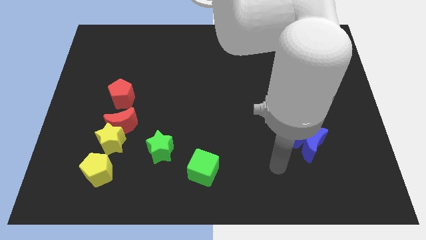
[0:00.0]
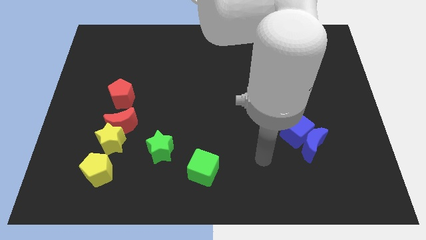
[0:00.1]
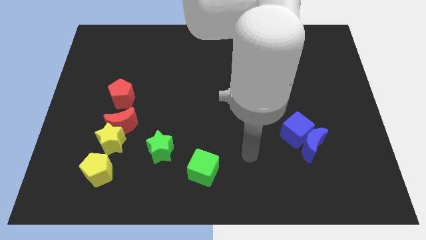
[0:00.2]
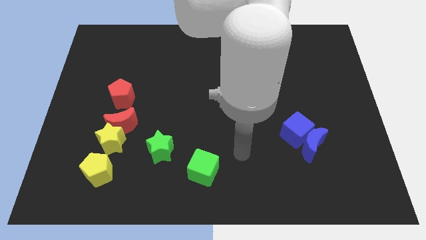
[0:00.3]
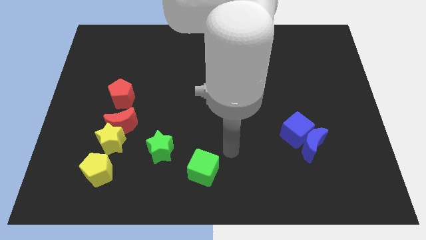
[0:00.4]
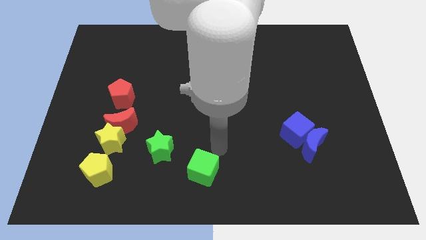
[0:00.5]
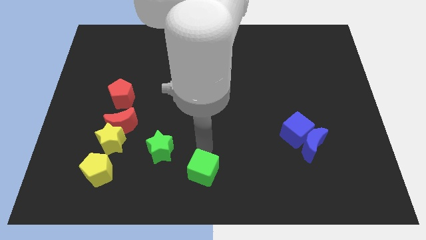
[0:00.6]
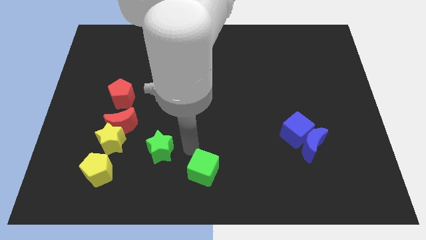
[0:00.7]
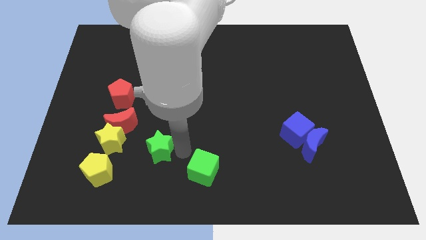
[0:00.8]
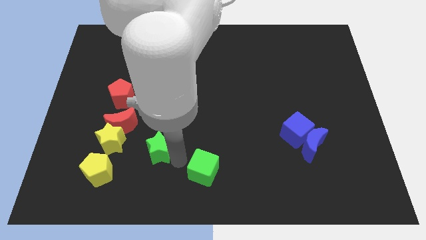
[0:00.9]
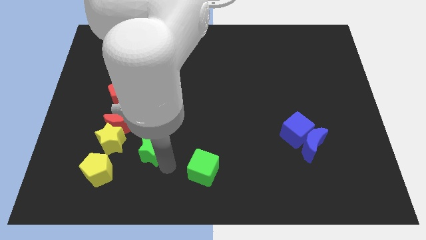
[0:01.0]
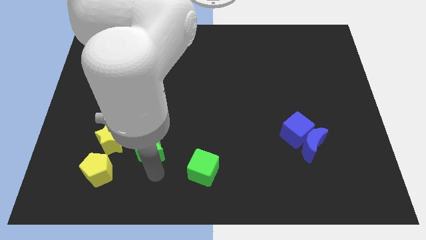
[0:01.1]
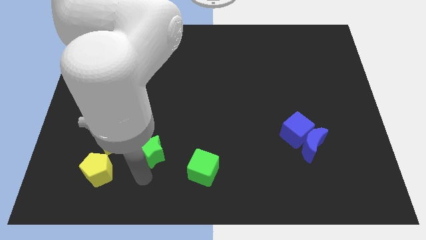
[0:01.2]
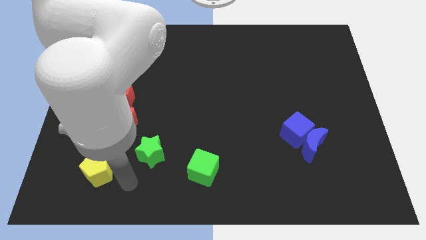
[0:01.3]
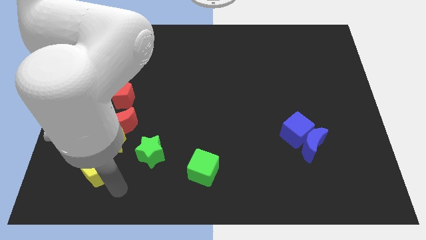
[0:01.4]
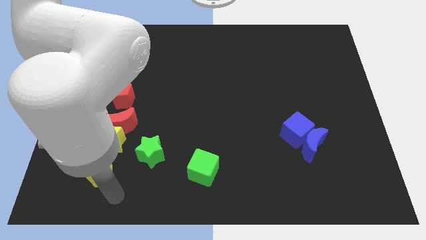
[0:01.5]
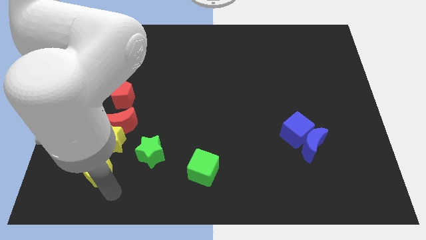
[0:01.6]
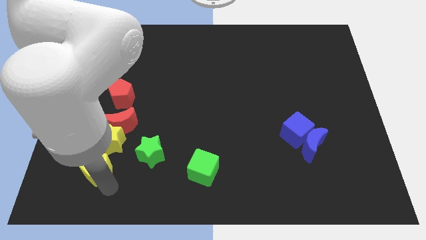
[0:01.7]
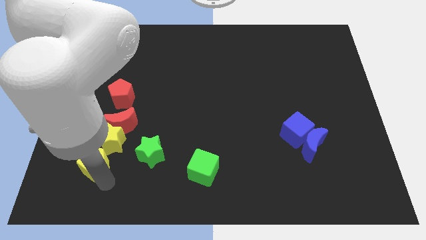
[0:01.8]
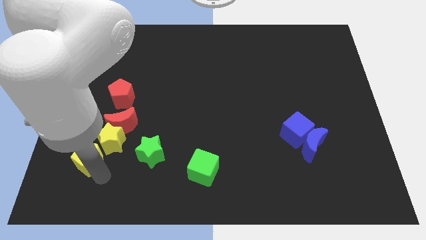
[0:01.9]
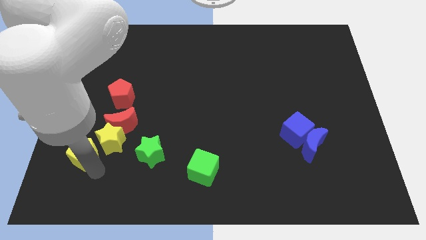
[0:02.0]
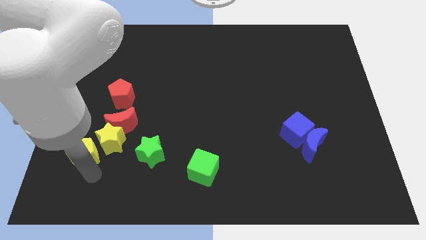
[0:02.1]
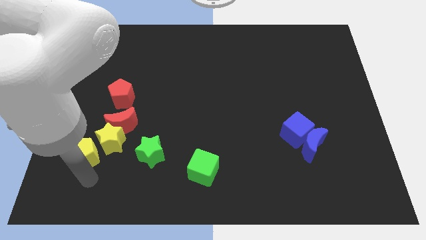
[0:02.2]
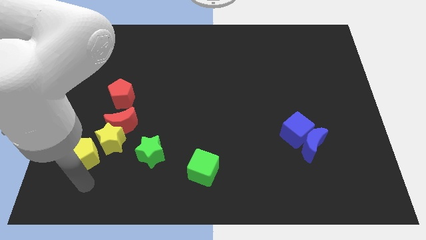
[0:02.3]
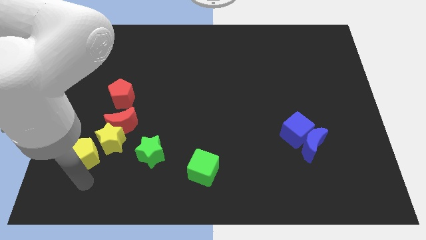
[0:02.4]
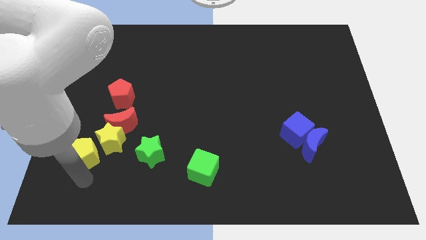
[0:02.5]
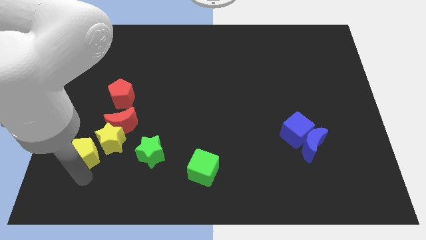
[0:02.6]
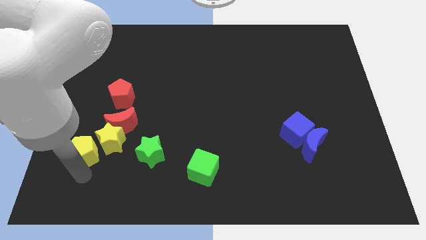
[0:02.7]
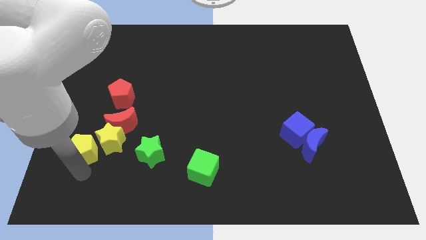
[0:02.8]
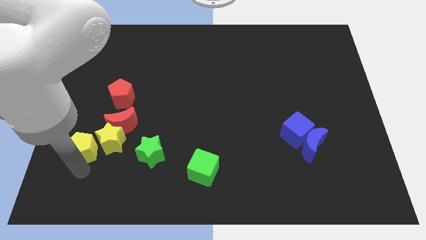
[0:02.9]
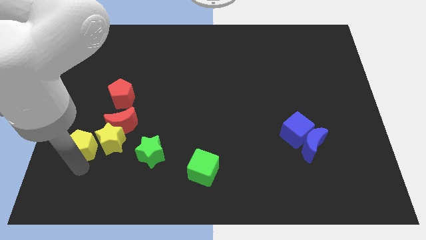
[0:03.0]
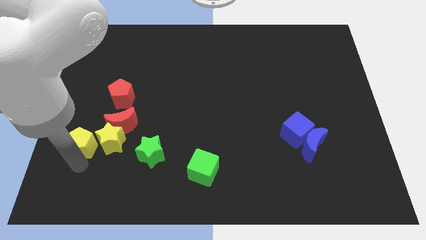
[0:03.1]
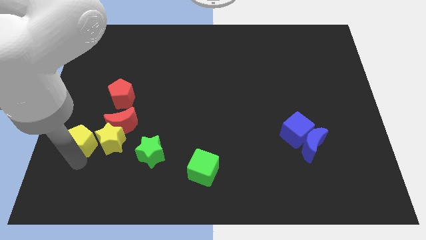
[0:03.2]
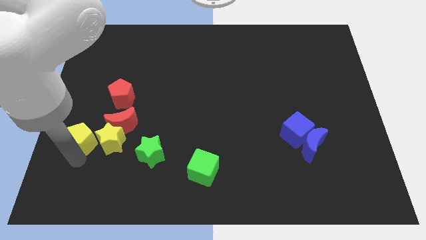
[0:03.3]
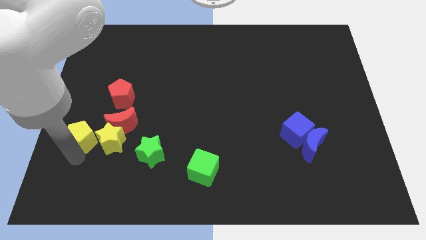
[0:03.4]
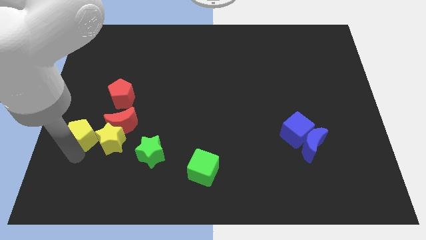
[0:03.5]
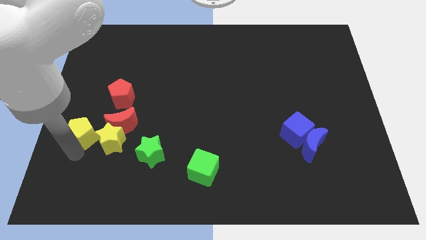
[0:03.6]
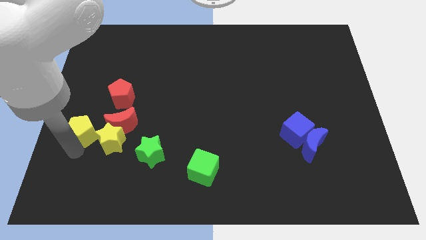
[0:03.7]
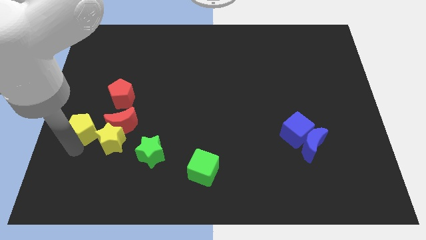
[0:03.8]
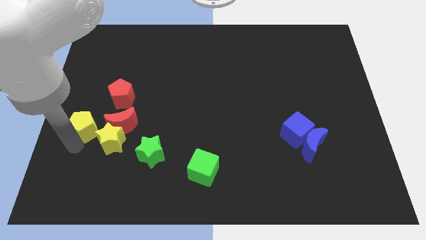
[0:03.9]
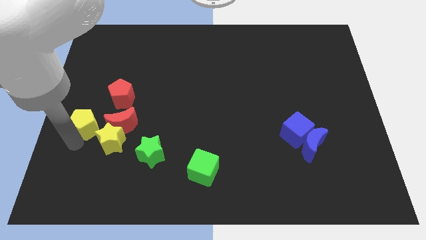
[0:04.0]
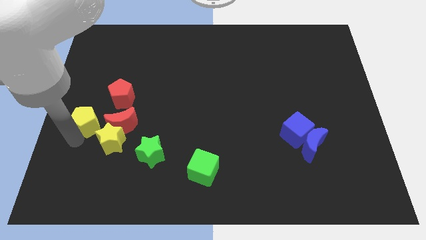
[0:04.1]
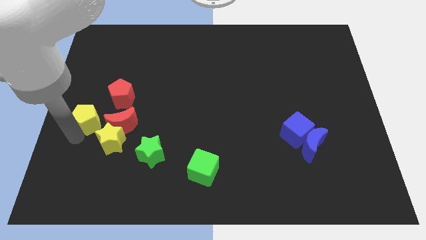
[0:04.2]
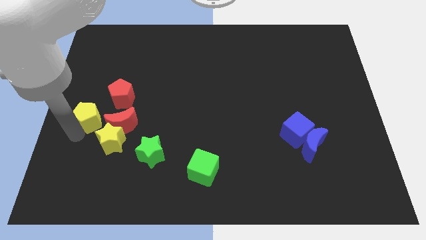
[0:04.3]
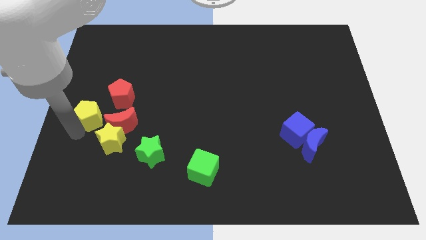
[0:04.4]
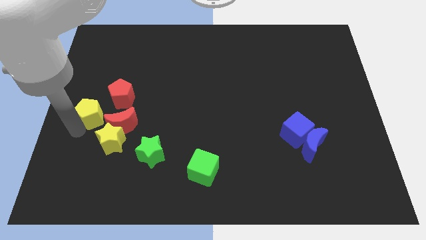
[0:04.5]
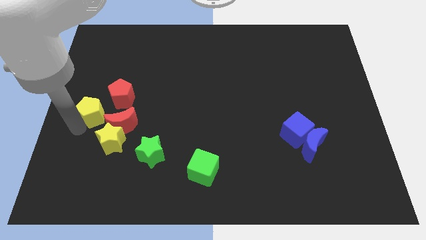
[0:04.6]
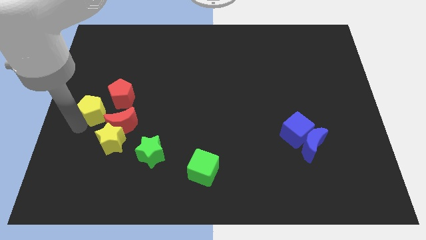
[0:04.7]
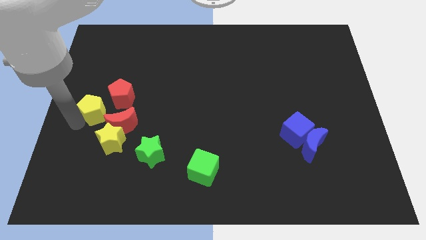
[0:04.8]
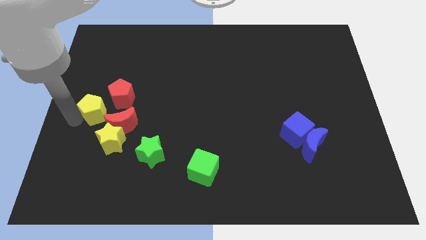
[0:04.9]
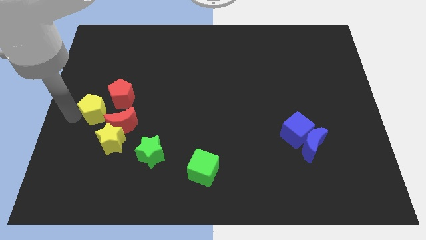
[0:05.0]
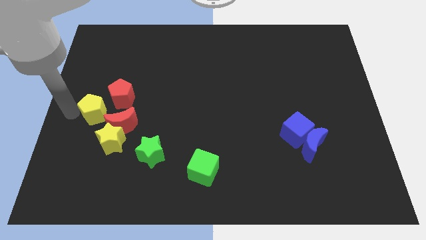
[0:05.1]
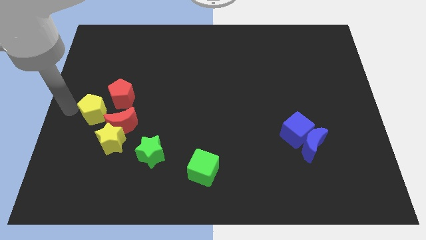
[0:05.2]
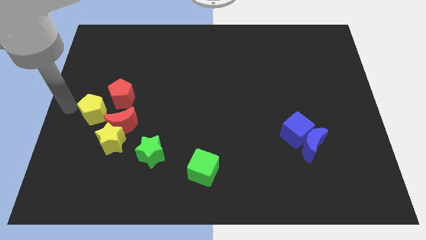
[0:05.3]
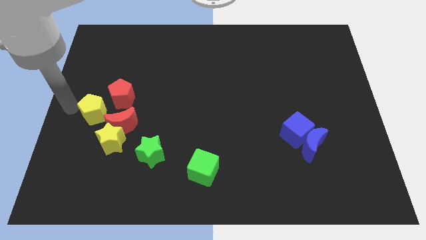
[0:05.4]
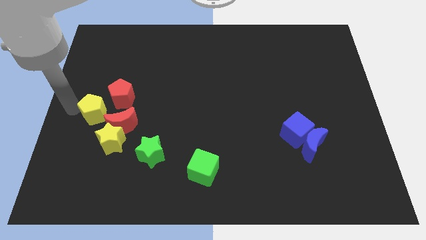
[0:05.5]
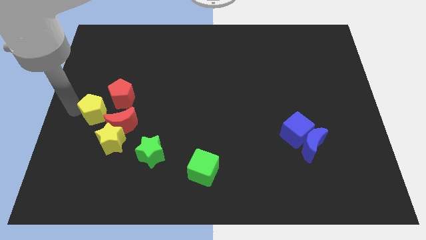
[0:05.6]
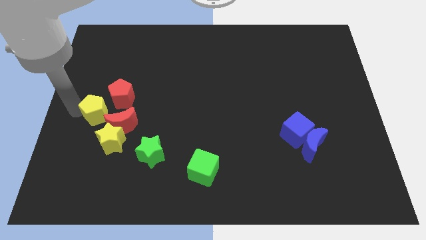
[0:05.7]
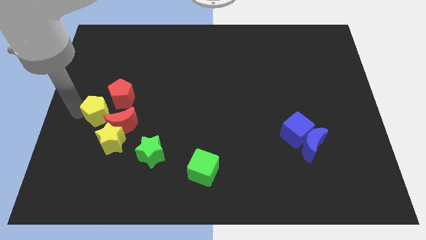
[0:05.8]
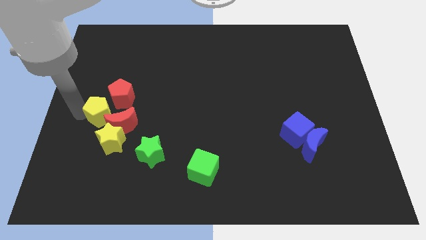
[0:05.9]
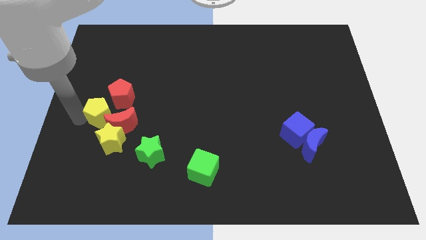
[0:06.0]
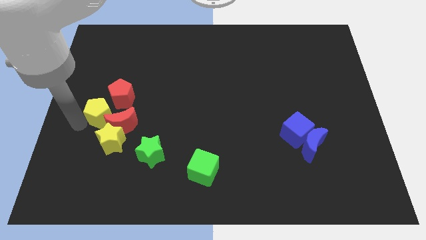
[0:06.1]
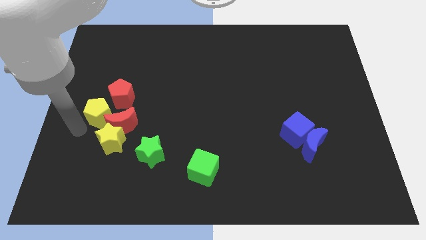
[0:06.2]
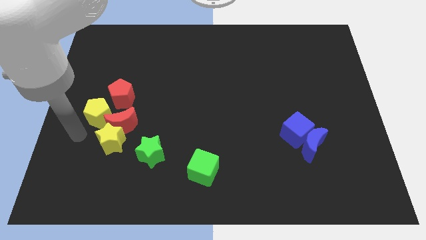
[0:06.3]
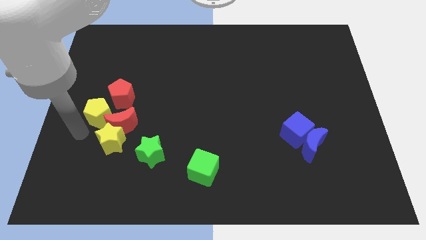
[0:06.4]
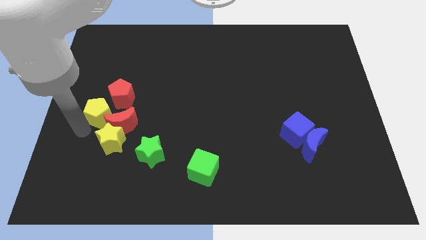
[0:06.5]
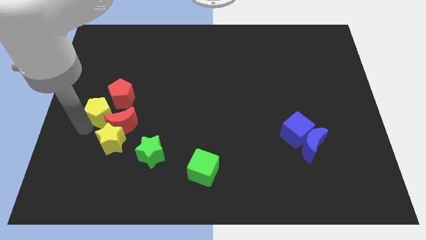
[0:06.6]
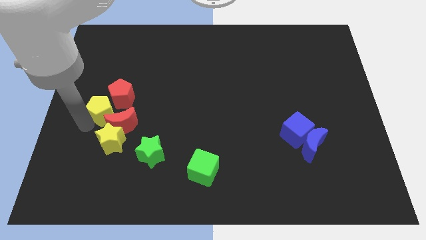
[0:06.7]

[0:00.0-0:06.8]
slide the yellow pentagon towards the red pentagon
